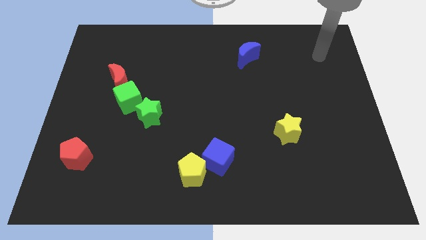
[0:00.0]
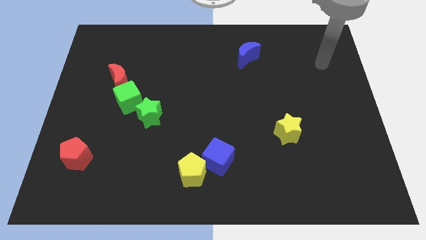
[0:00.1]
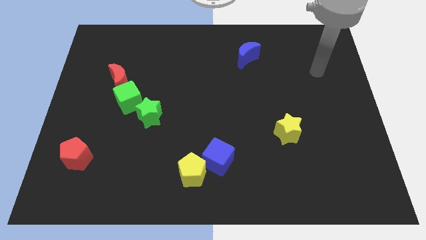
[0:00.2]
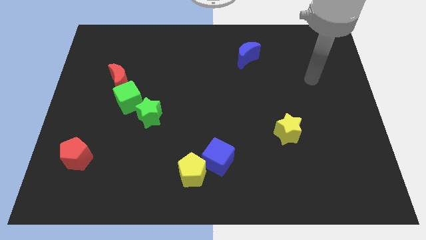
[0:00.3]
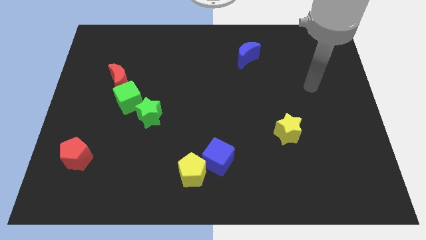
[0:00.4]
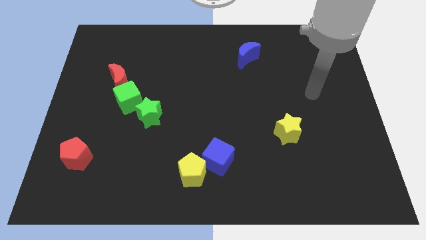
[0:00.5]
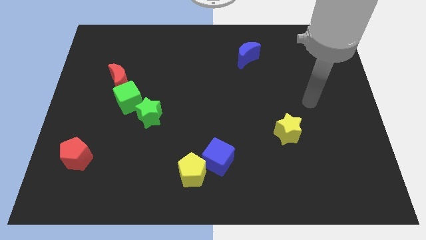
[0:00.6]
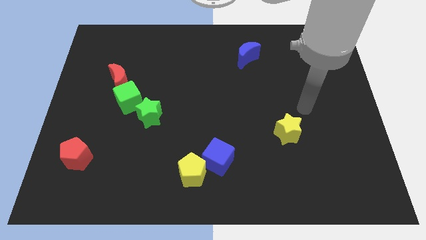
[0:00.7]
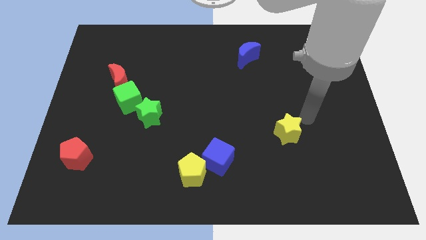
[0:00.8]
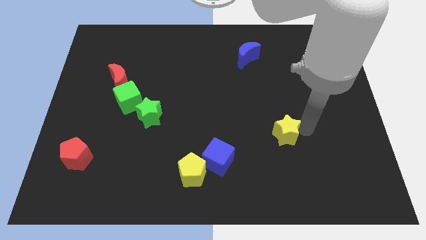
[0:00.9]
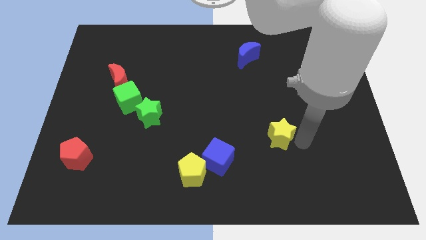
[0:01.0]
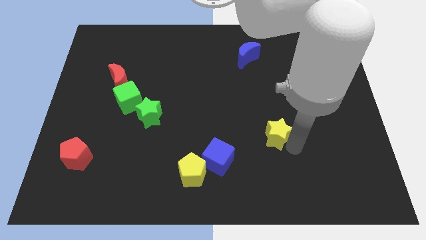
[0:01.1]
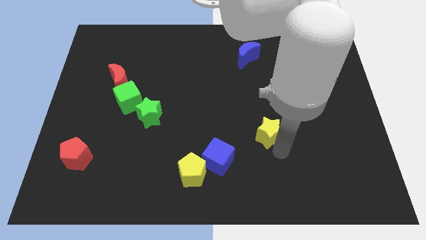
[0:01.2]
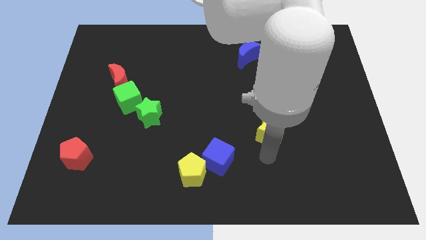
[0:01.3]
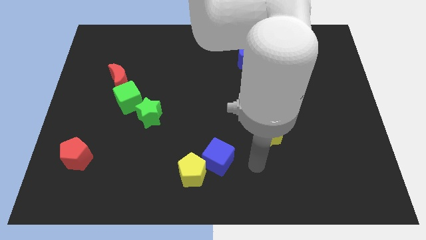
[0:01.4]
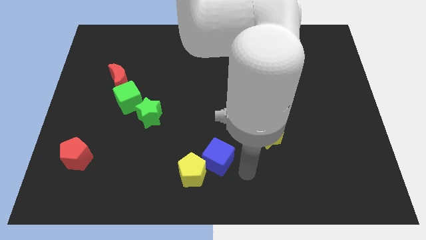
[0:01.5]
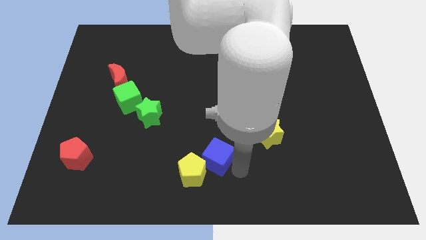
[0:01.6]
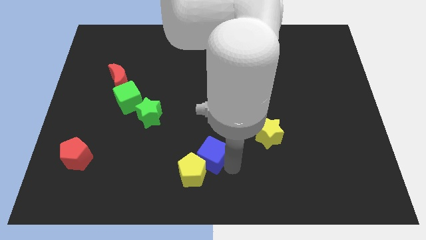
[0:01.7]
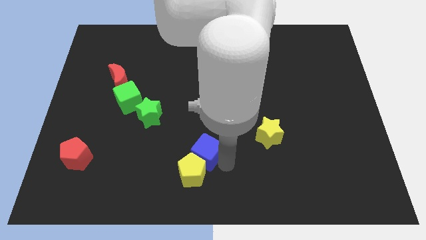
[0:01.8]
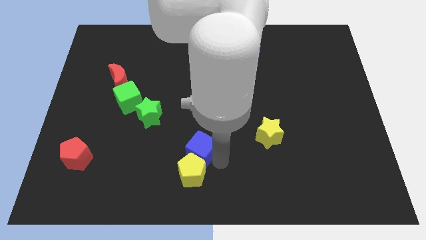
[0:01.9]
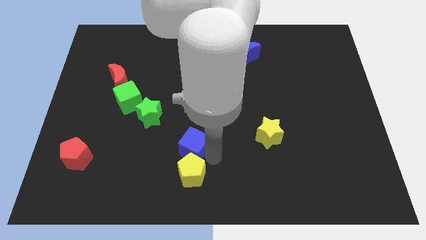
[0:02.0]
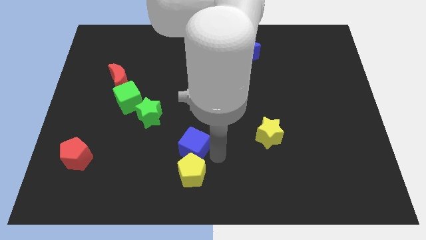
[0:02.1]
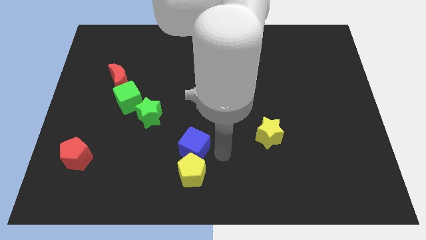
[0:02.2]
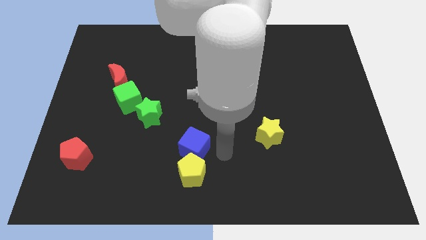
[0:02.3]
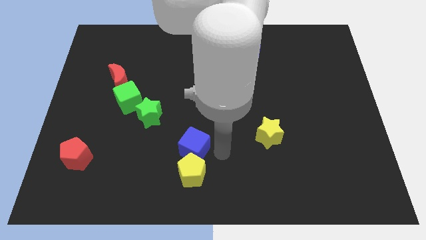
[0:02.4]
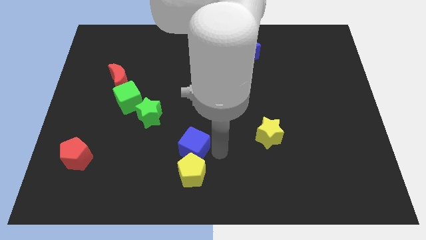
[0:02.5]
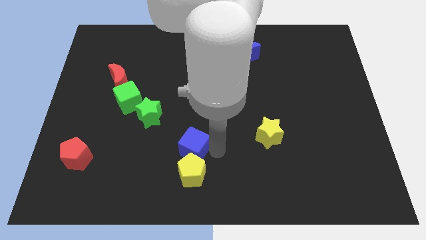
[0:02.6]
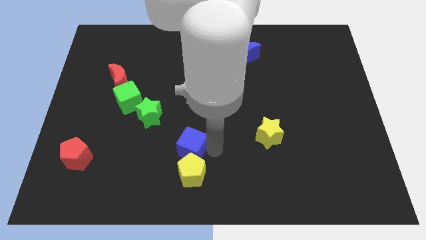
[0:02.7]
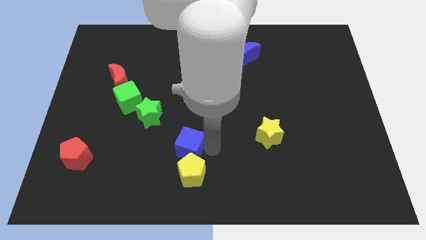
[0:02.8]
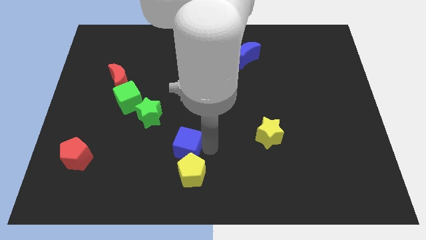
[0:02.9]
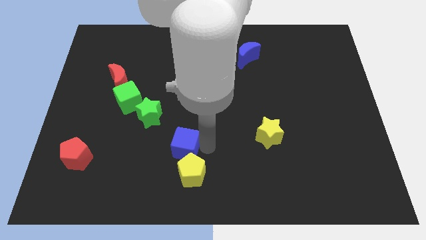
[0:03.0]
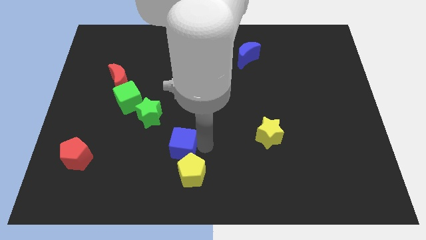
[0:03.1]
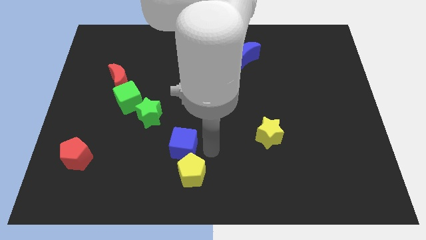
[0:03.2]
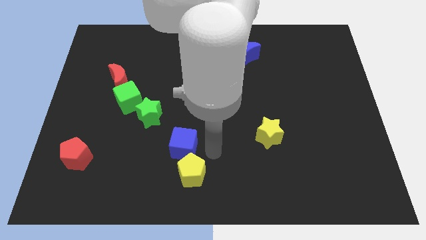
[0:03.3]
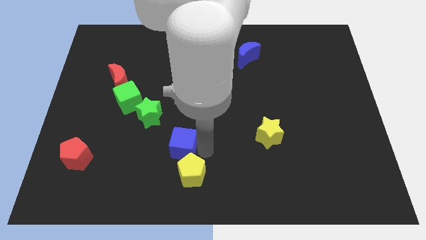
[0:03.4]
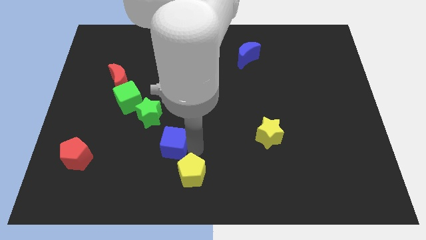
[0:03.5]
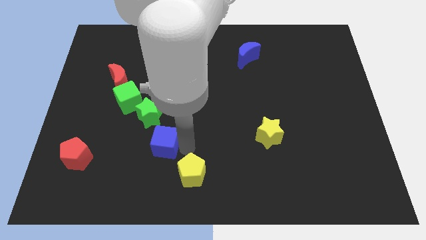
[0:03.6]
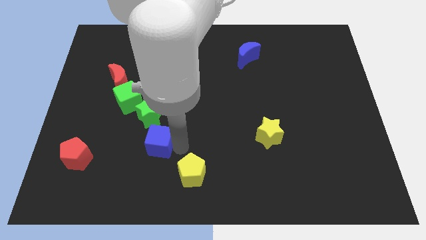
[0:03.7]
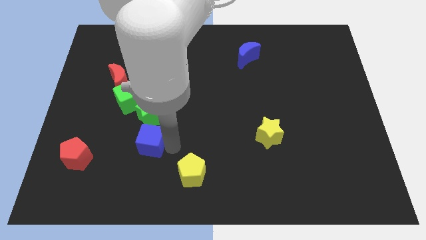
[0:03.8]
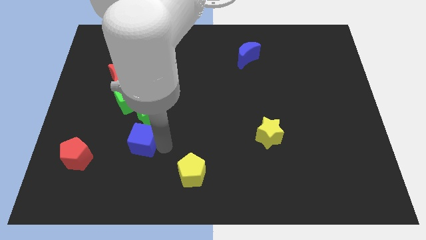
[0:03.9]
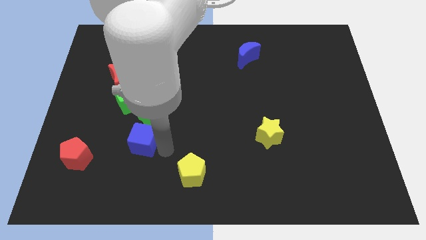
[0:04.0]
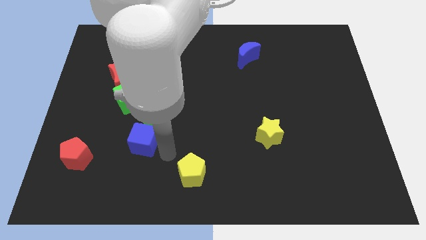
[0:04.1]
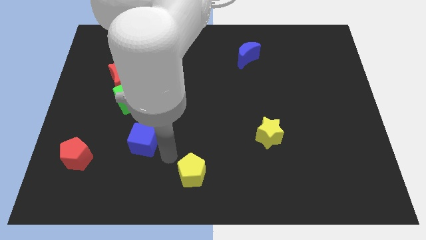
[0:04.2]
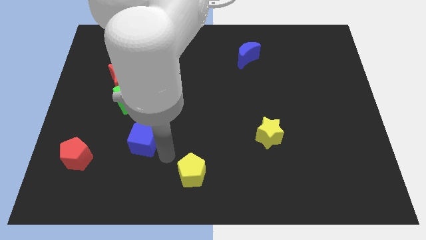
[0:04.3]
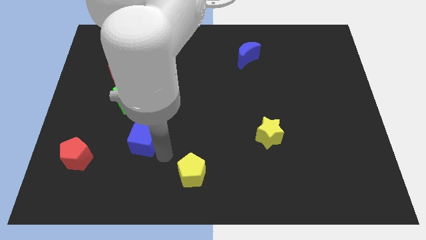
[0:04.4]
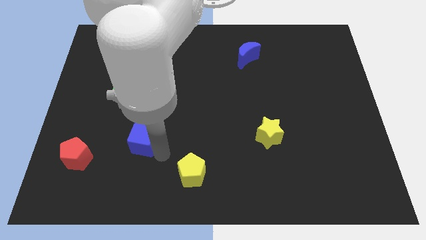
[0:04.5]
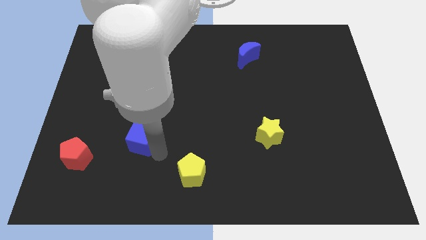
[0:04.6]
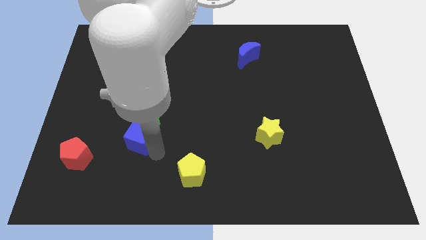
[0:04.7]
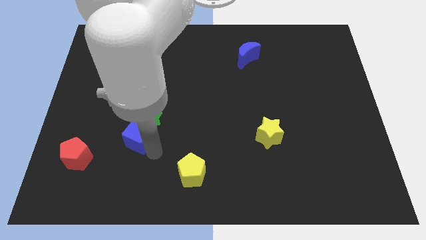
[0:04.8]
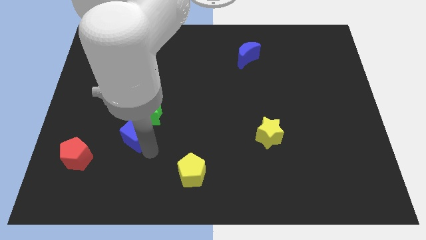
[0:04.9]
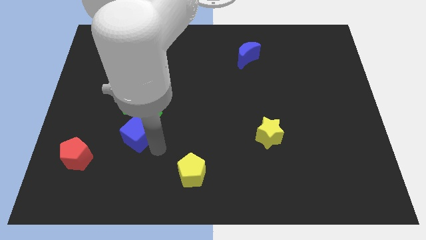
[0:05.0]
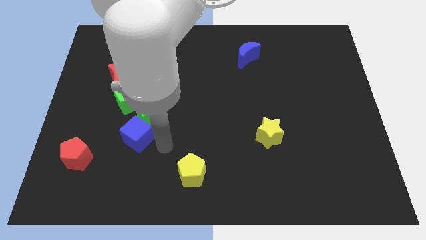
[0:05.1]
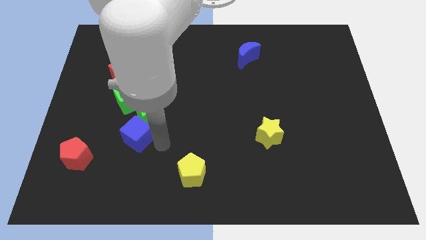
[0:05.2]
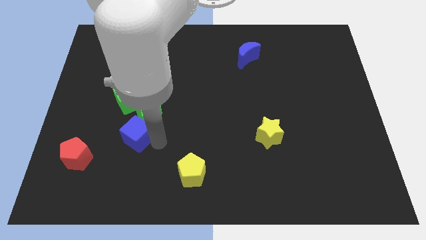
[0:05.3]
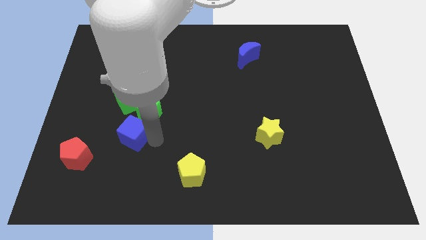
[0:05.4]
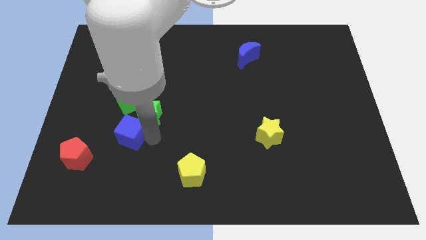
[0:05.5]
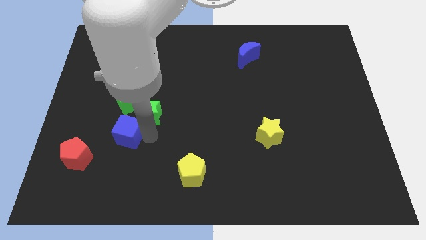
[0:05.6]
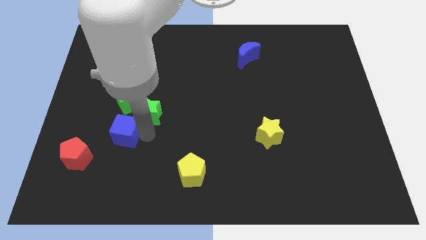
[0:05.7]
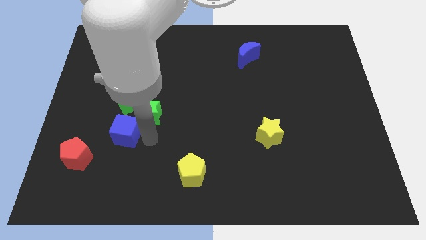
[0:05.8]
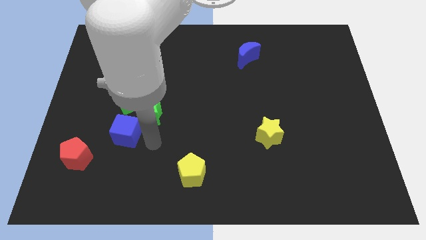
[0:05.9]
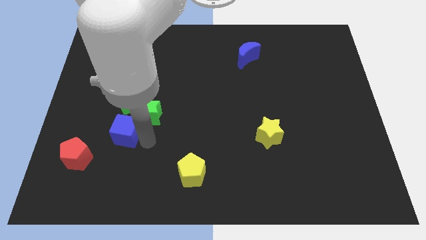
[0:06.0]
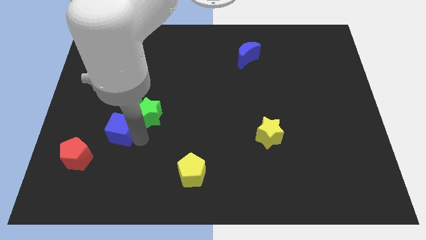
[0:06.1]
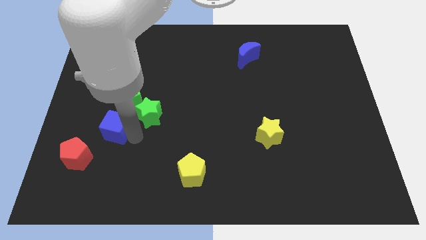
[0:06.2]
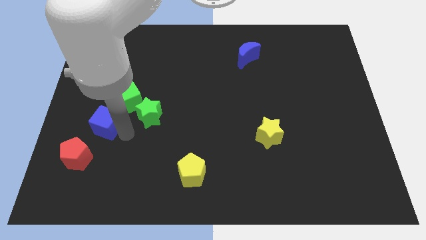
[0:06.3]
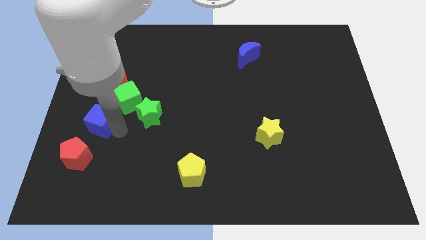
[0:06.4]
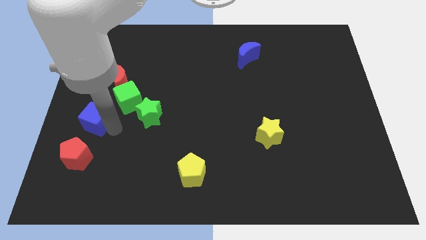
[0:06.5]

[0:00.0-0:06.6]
push the blue cube to the left side
